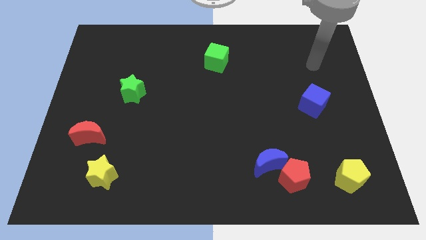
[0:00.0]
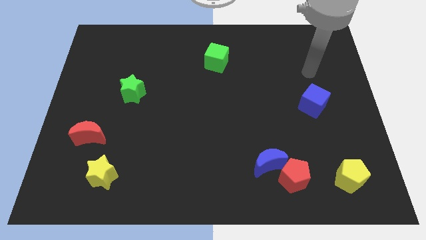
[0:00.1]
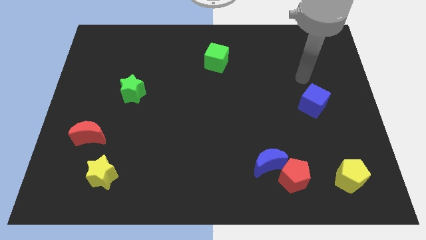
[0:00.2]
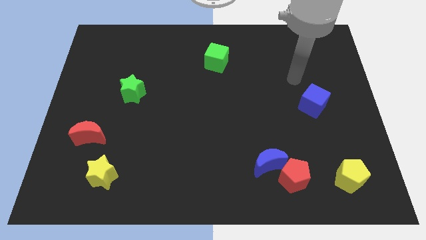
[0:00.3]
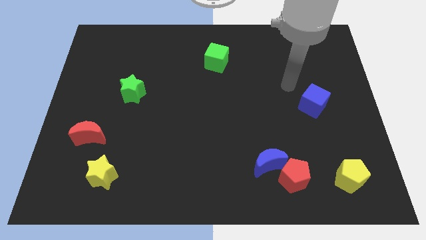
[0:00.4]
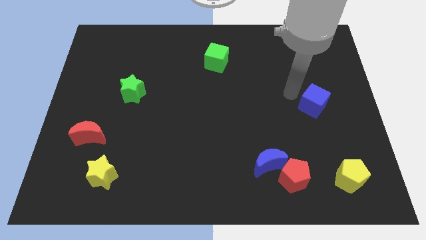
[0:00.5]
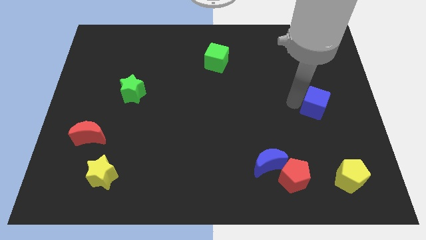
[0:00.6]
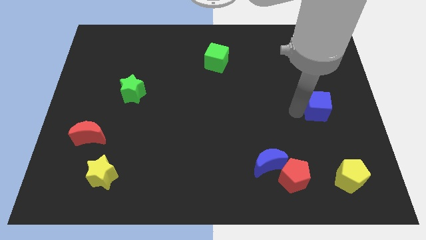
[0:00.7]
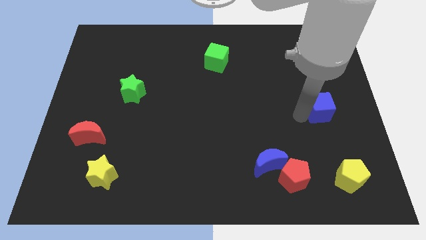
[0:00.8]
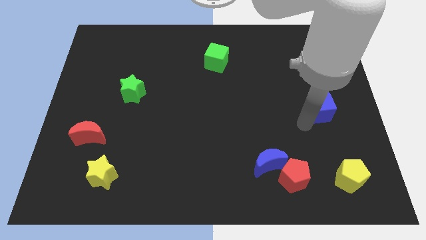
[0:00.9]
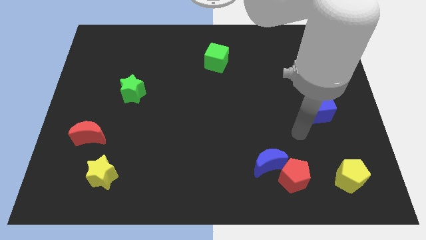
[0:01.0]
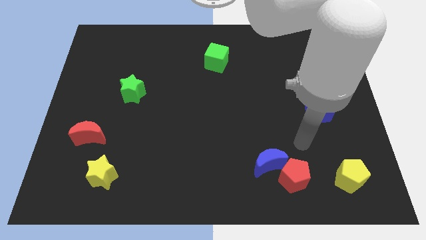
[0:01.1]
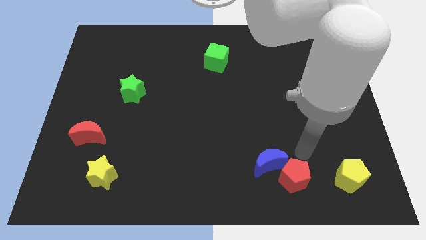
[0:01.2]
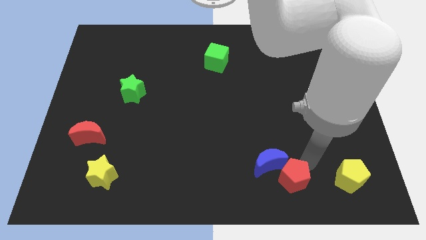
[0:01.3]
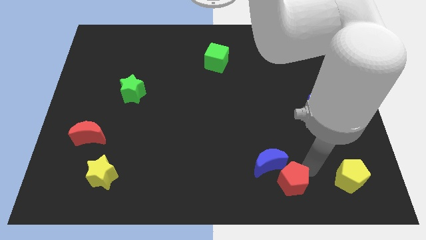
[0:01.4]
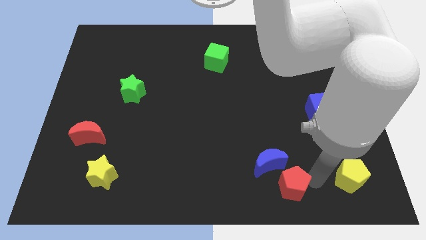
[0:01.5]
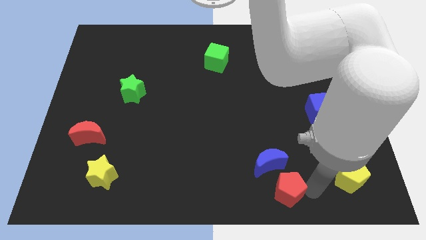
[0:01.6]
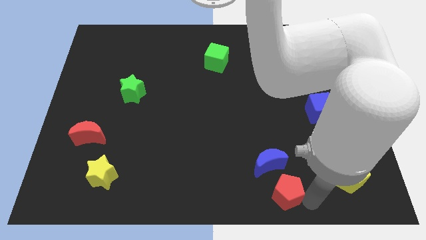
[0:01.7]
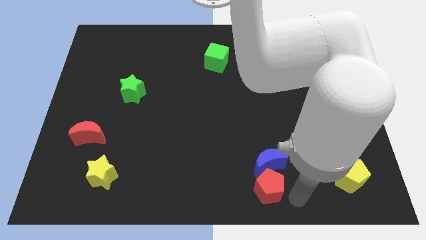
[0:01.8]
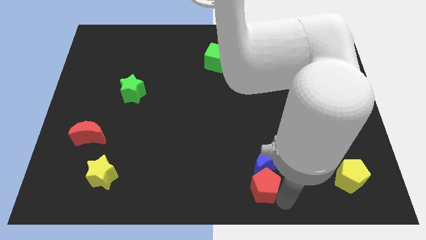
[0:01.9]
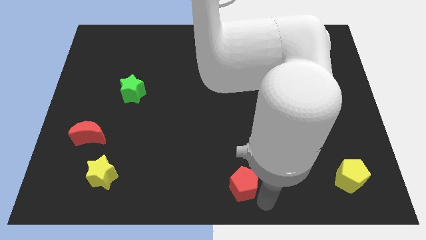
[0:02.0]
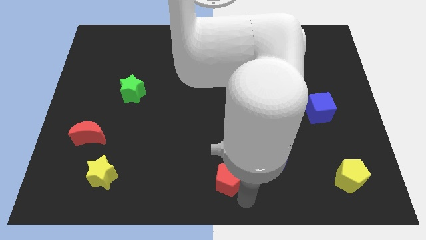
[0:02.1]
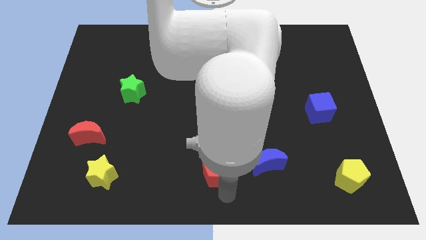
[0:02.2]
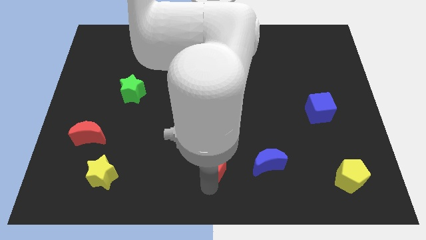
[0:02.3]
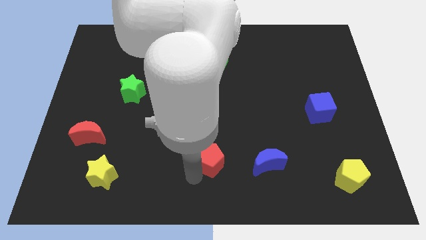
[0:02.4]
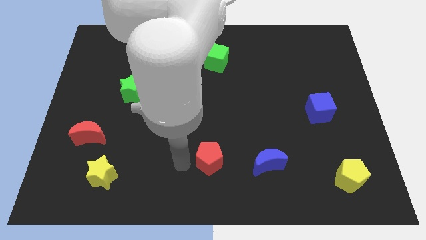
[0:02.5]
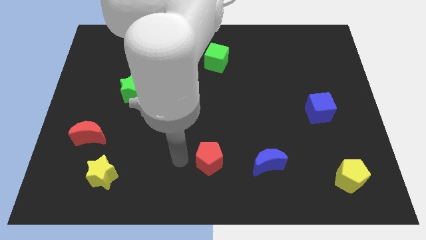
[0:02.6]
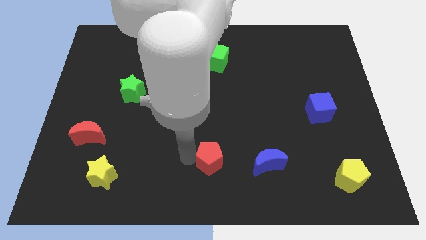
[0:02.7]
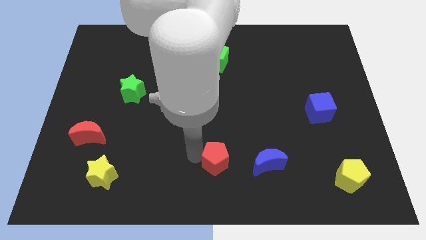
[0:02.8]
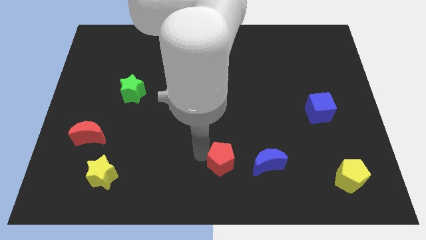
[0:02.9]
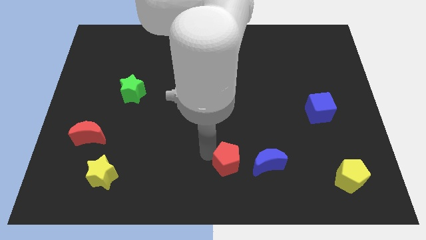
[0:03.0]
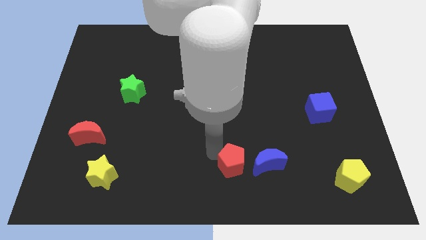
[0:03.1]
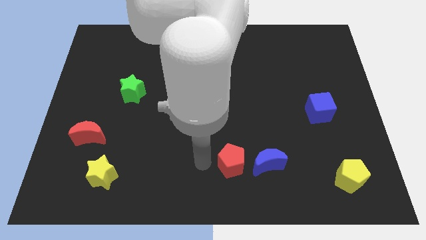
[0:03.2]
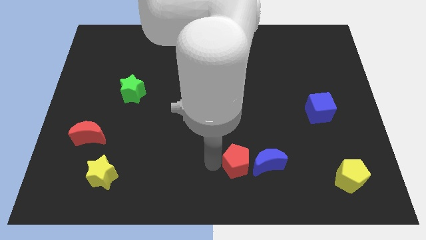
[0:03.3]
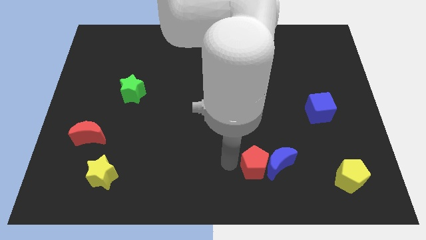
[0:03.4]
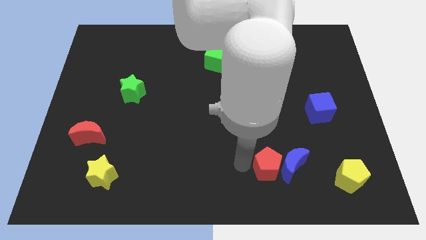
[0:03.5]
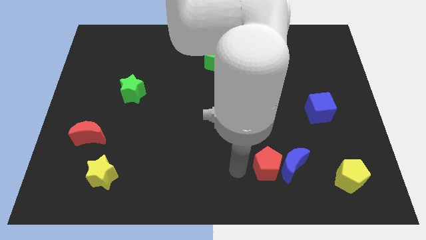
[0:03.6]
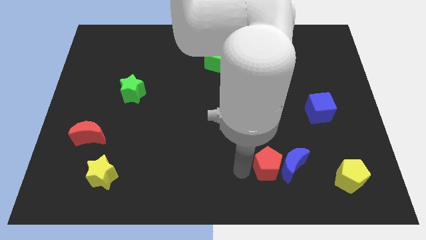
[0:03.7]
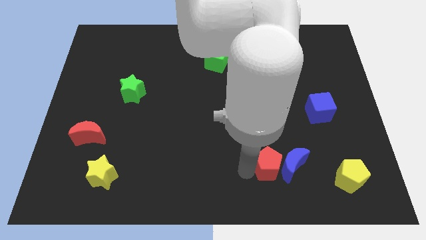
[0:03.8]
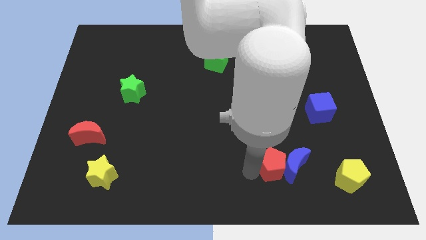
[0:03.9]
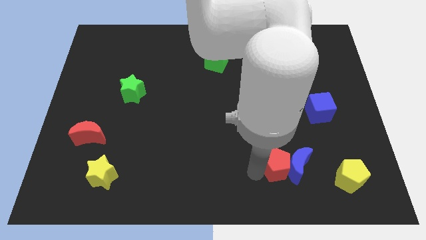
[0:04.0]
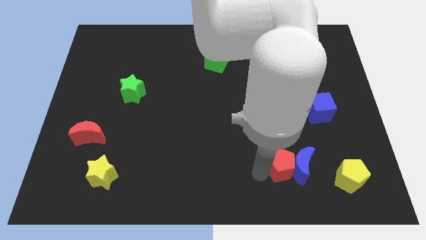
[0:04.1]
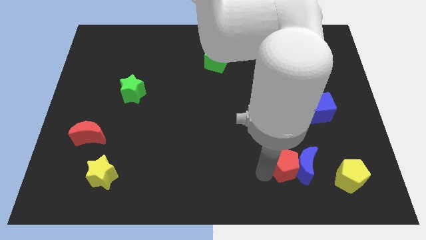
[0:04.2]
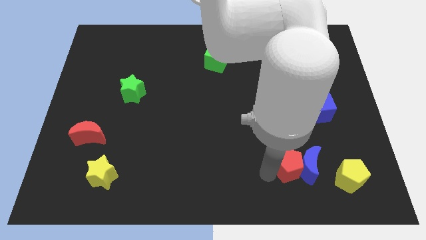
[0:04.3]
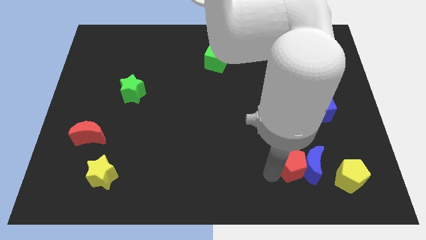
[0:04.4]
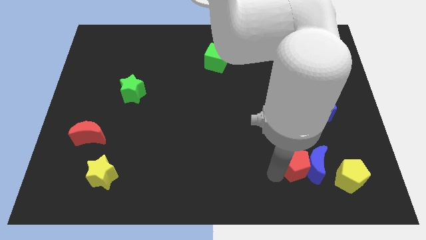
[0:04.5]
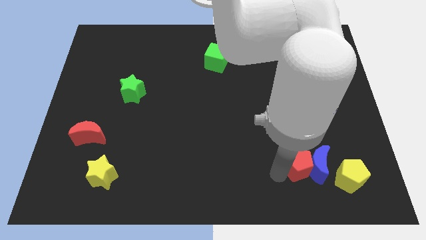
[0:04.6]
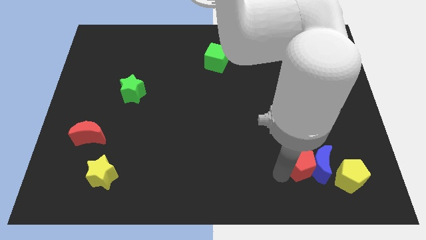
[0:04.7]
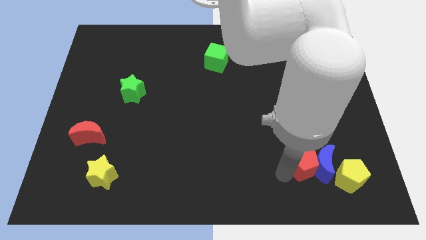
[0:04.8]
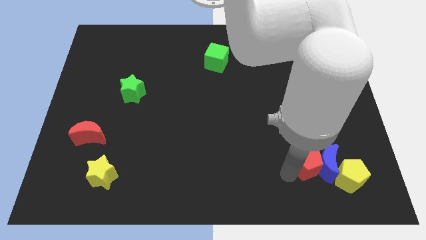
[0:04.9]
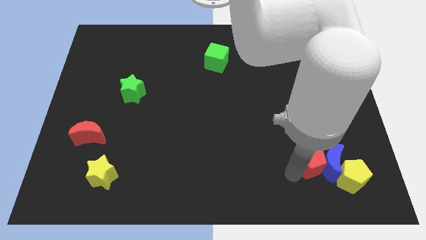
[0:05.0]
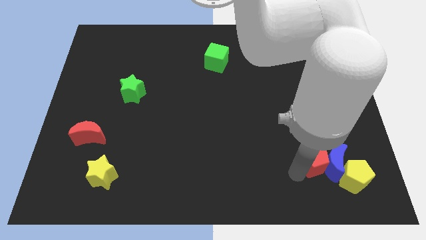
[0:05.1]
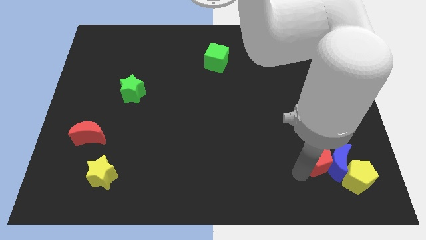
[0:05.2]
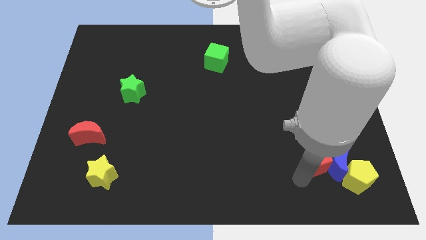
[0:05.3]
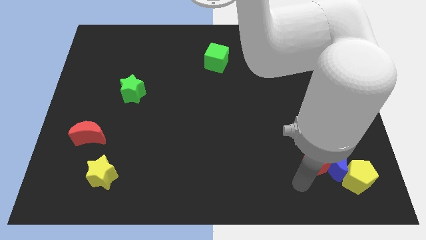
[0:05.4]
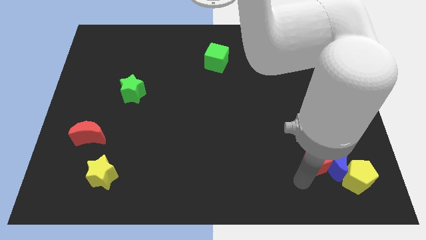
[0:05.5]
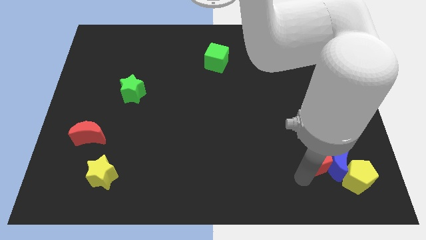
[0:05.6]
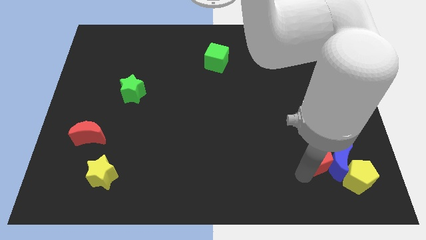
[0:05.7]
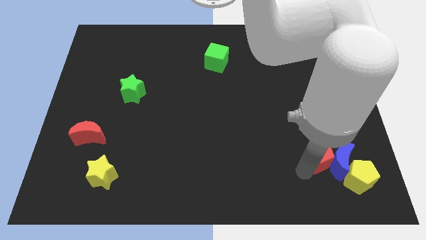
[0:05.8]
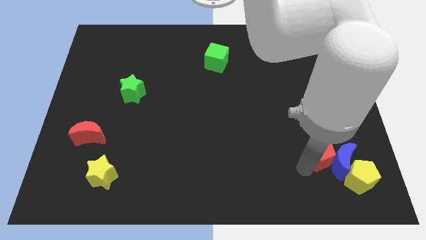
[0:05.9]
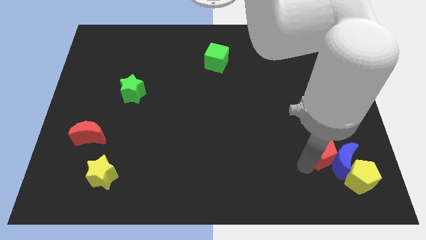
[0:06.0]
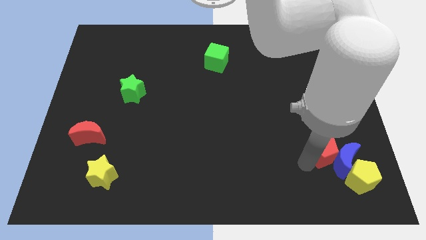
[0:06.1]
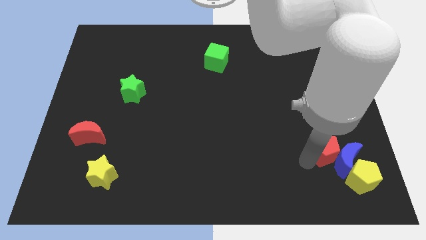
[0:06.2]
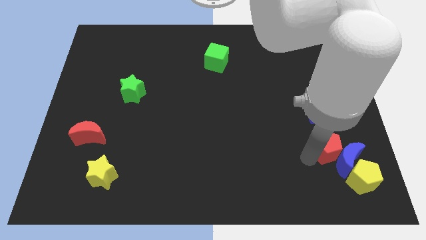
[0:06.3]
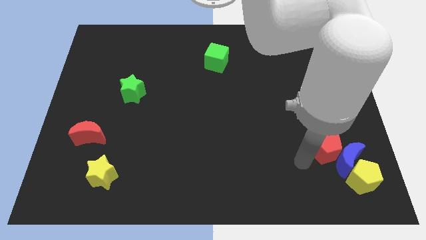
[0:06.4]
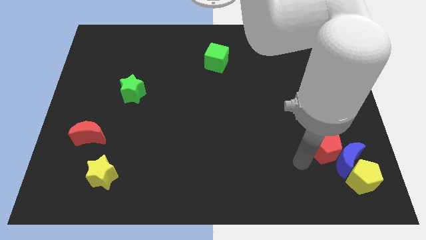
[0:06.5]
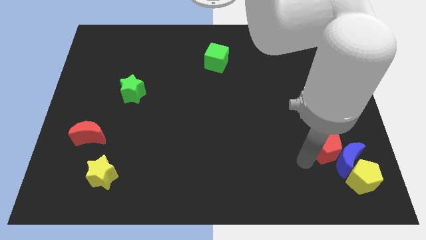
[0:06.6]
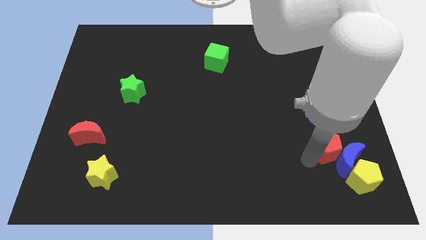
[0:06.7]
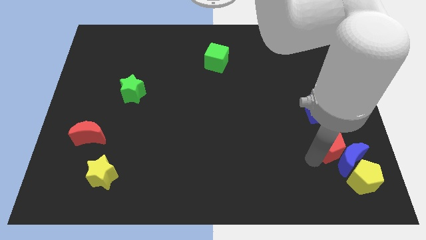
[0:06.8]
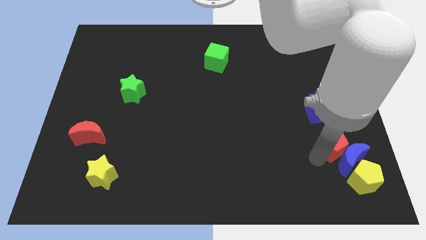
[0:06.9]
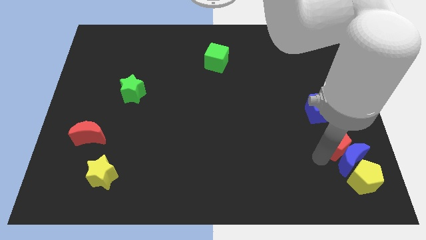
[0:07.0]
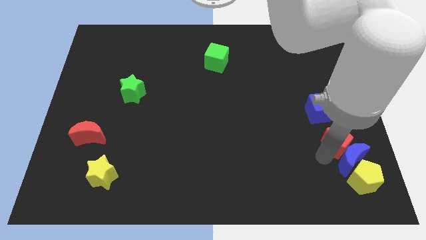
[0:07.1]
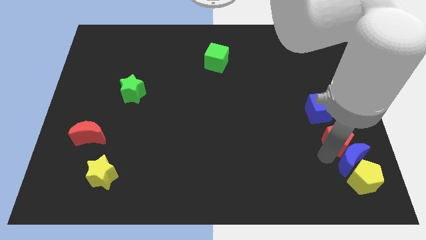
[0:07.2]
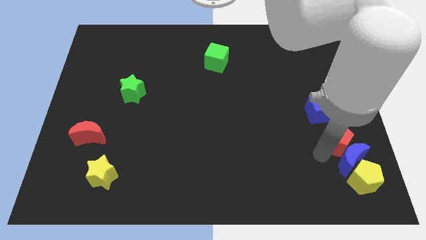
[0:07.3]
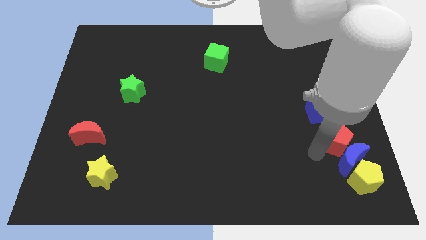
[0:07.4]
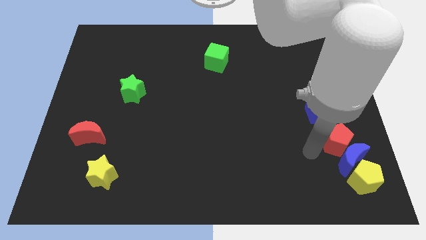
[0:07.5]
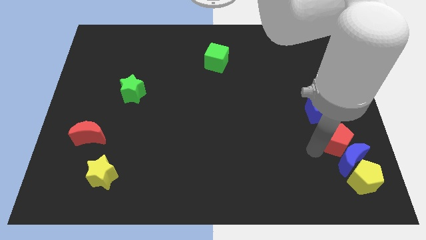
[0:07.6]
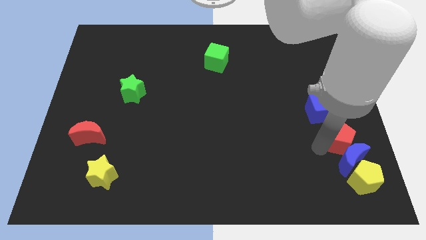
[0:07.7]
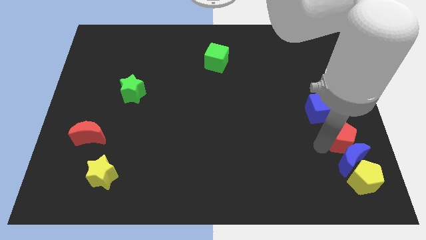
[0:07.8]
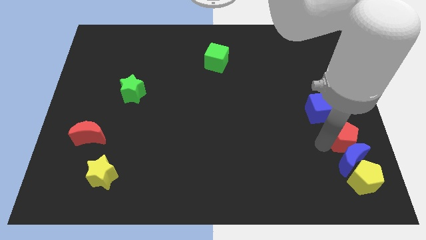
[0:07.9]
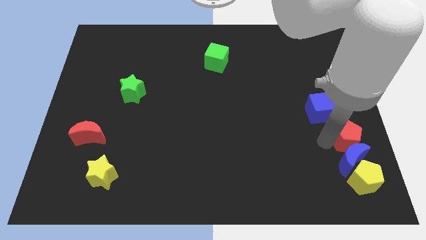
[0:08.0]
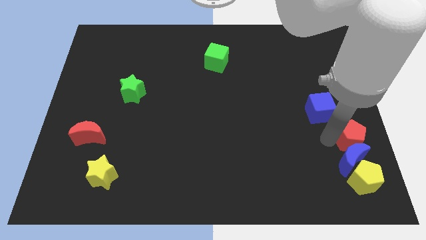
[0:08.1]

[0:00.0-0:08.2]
push the red pentagon to the right side of the board
